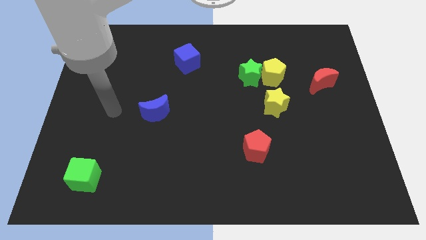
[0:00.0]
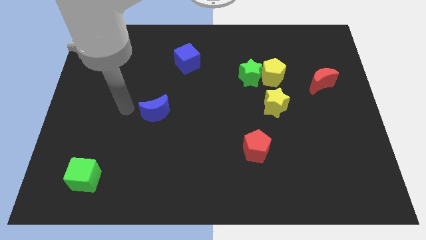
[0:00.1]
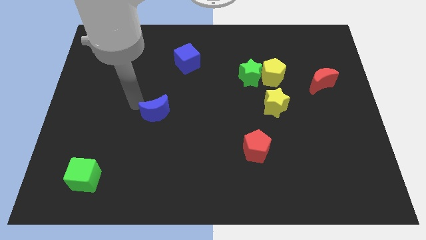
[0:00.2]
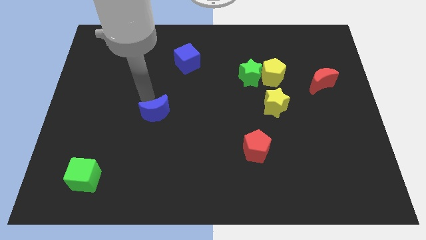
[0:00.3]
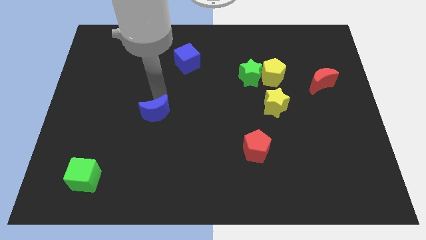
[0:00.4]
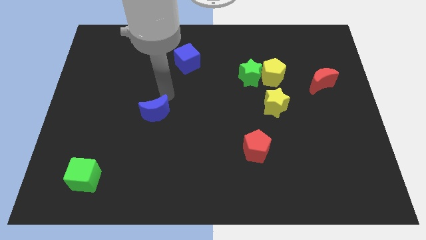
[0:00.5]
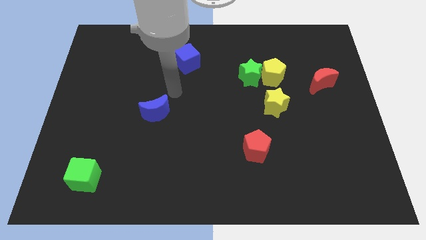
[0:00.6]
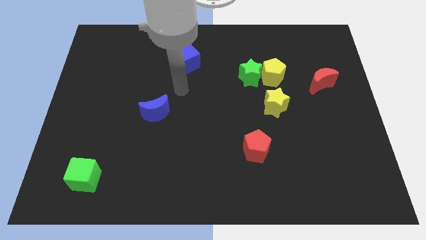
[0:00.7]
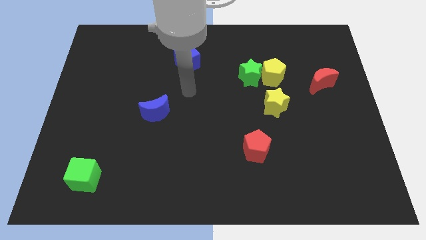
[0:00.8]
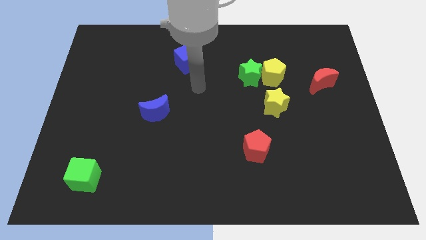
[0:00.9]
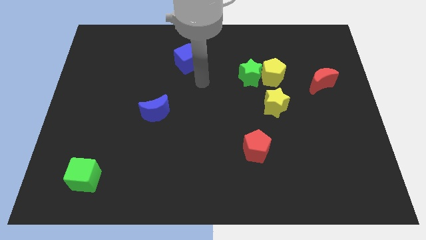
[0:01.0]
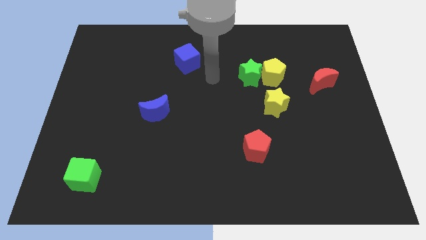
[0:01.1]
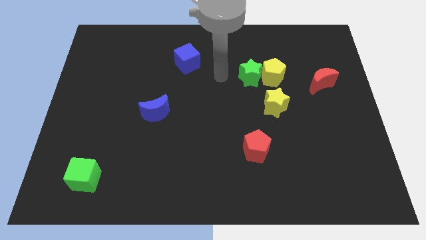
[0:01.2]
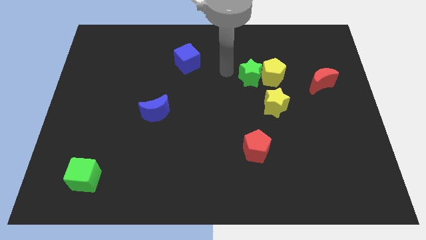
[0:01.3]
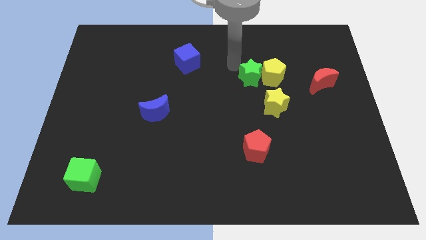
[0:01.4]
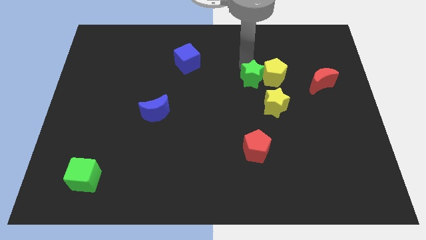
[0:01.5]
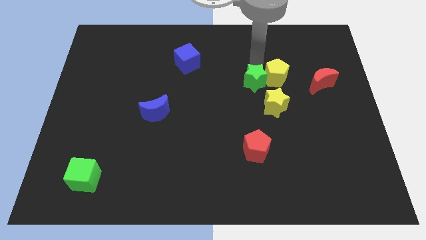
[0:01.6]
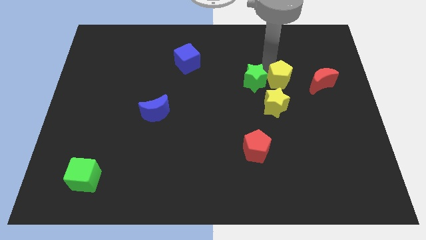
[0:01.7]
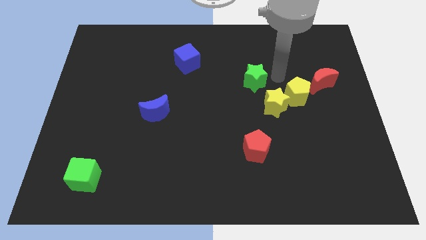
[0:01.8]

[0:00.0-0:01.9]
pull the green star apart from the yellow pentagon

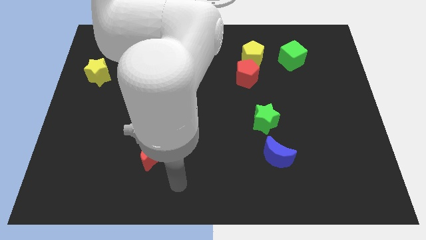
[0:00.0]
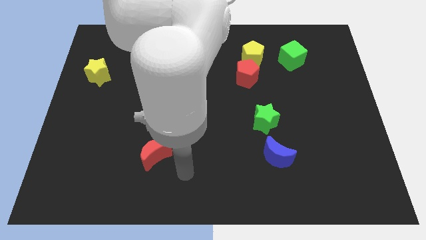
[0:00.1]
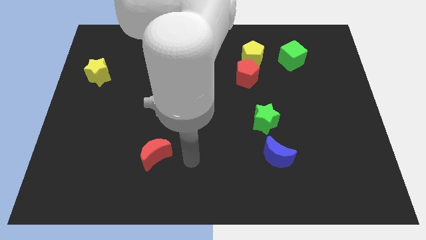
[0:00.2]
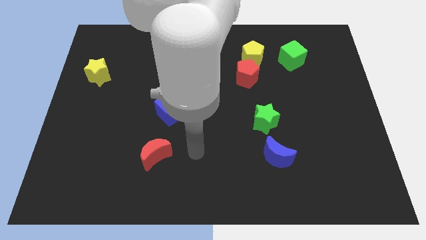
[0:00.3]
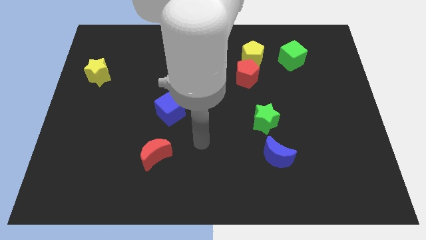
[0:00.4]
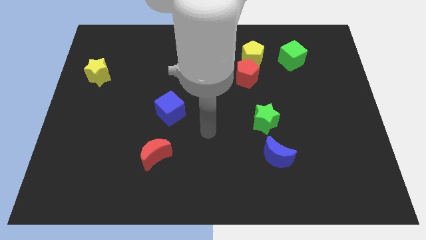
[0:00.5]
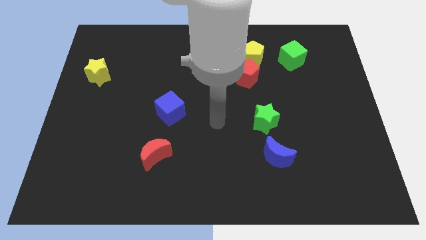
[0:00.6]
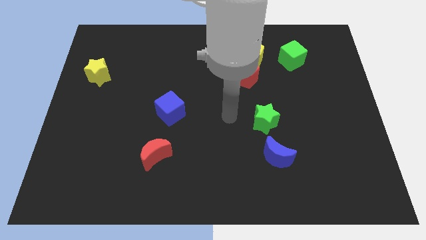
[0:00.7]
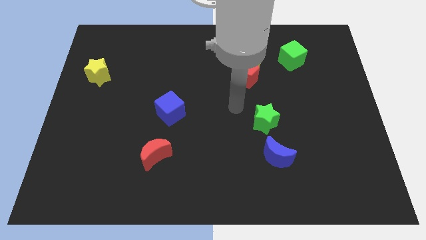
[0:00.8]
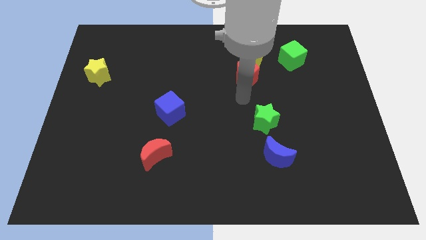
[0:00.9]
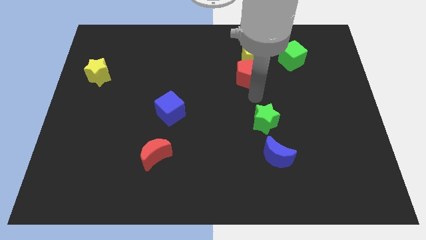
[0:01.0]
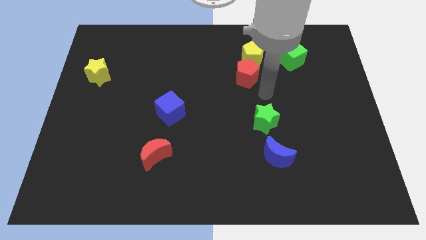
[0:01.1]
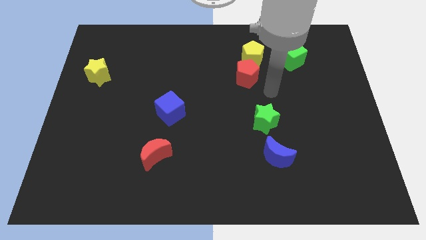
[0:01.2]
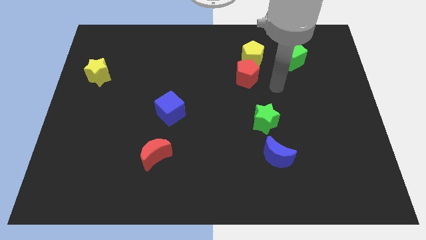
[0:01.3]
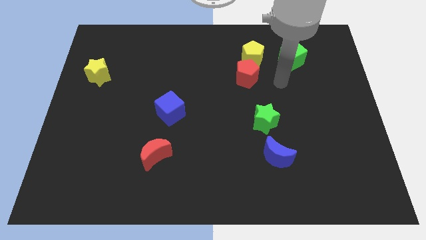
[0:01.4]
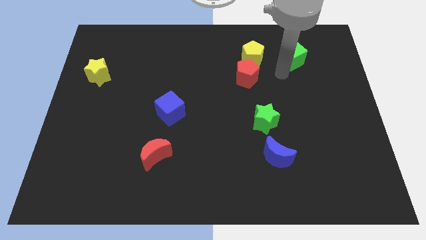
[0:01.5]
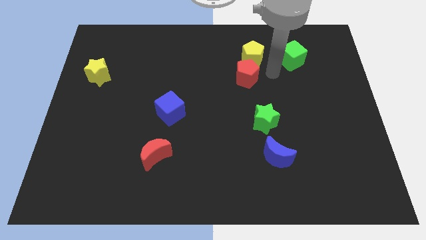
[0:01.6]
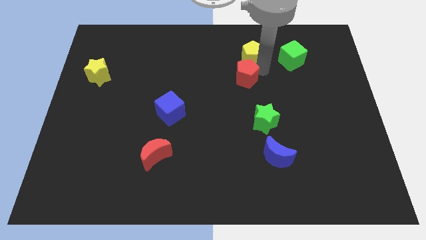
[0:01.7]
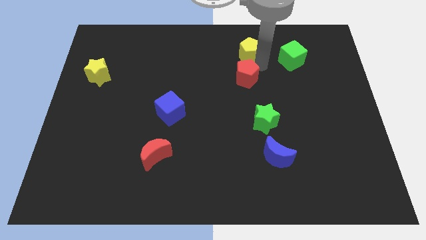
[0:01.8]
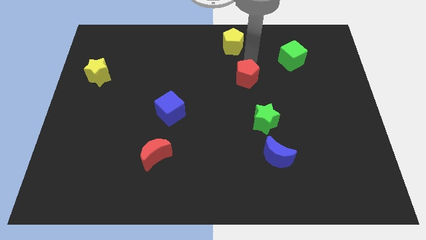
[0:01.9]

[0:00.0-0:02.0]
pull the red pentagon apart from the yellow pentagon

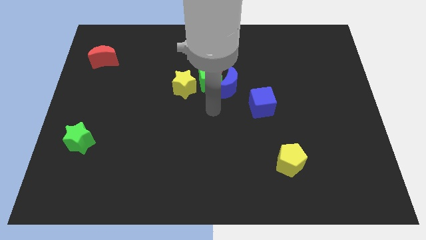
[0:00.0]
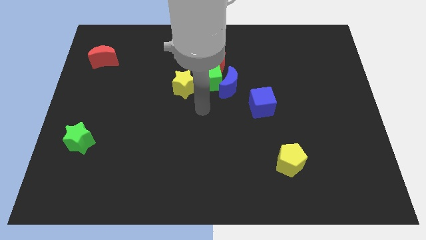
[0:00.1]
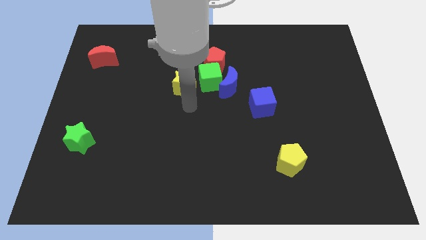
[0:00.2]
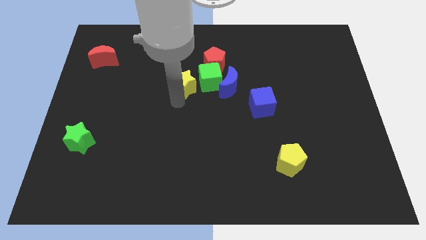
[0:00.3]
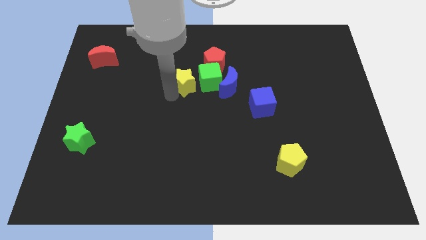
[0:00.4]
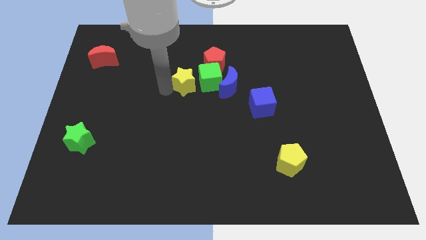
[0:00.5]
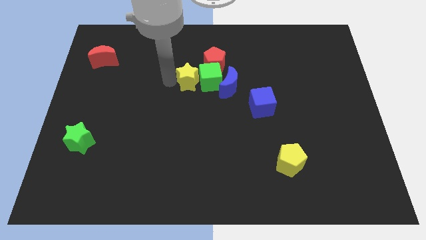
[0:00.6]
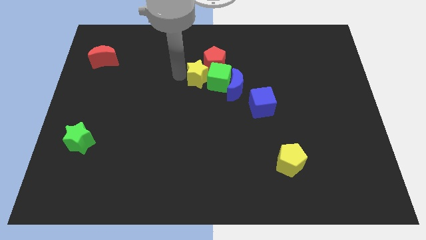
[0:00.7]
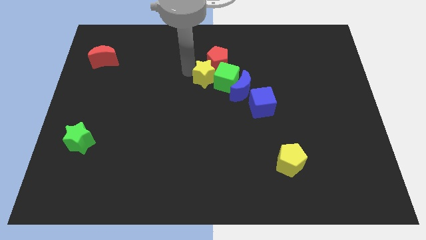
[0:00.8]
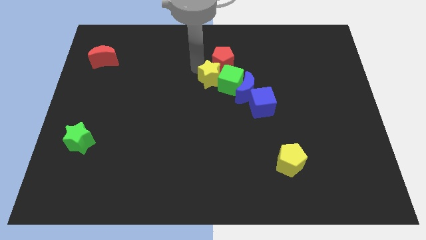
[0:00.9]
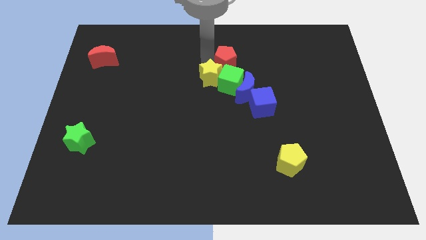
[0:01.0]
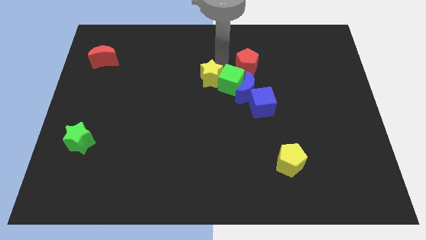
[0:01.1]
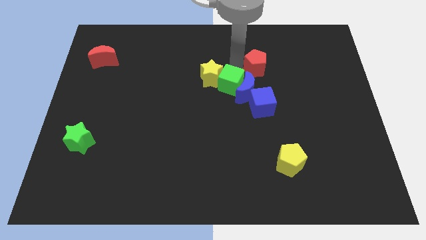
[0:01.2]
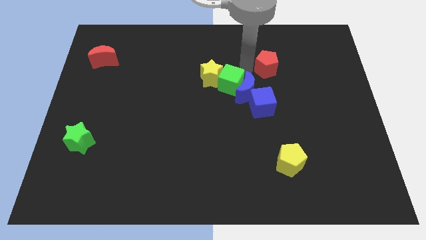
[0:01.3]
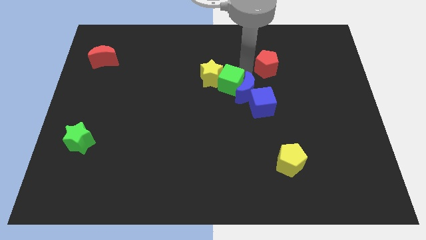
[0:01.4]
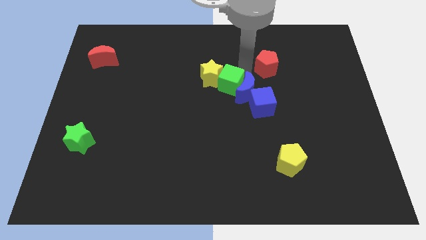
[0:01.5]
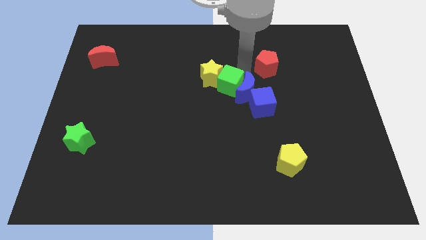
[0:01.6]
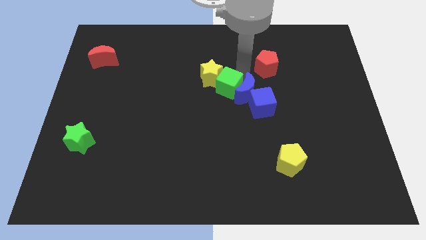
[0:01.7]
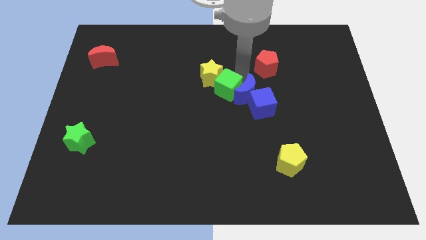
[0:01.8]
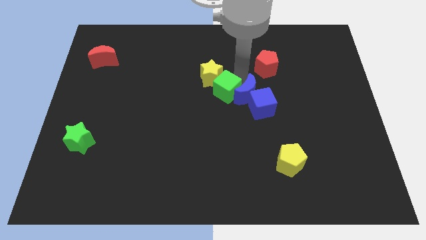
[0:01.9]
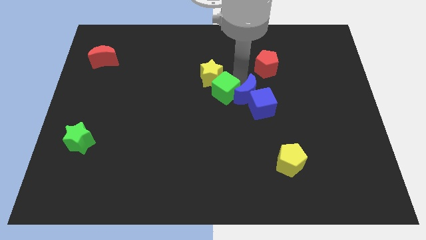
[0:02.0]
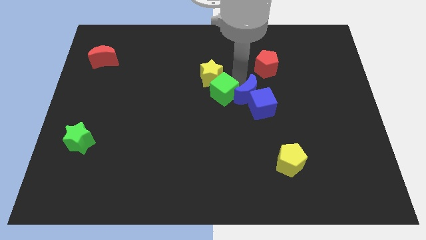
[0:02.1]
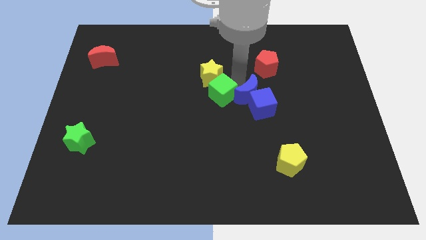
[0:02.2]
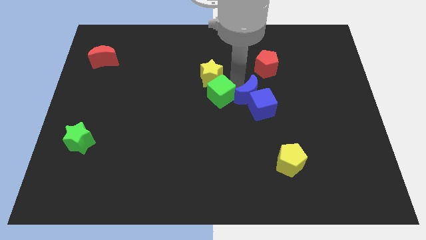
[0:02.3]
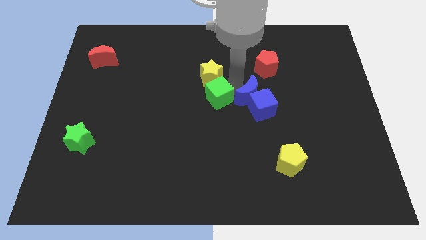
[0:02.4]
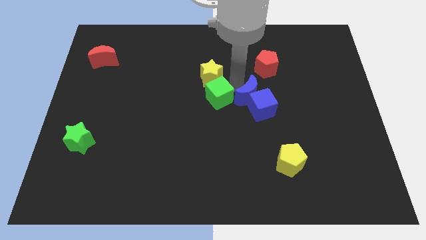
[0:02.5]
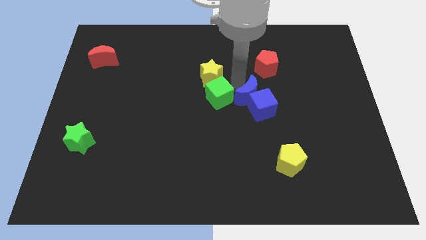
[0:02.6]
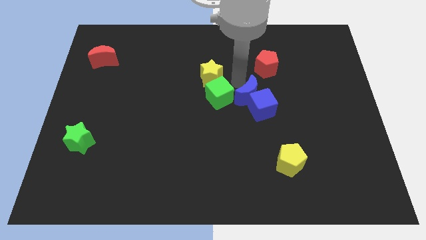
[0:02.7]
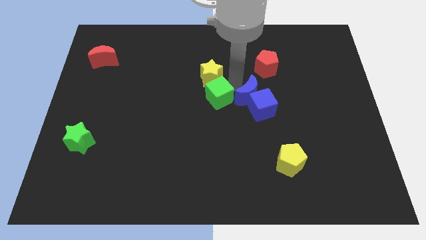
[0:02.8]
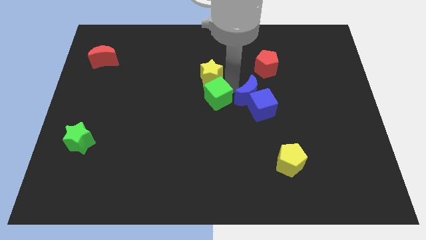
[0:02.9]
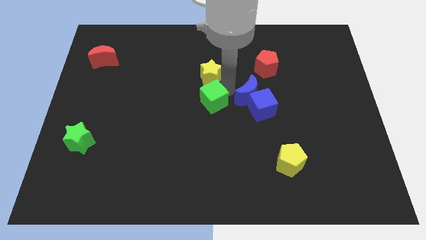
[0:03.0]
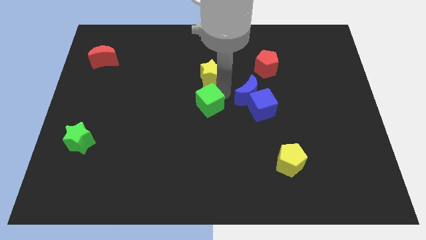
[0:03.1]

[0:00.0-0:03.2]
pull the green cube apart from the clump

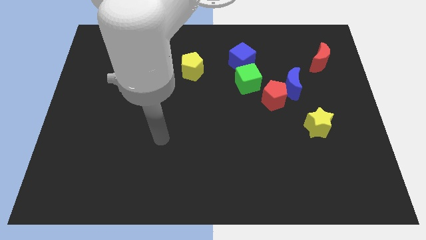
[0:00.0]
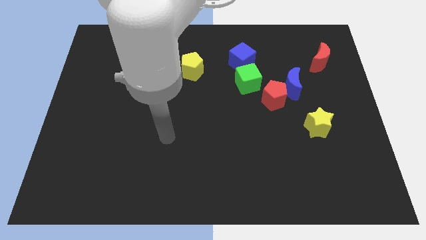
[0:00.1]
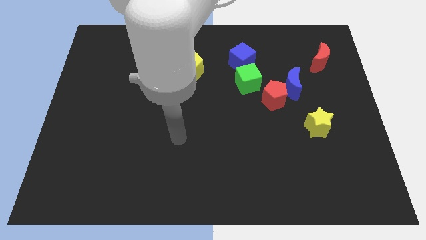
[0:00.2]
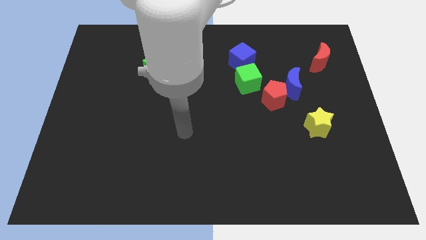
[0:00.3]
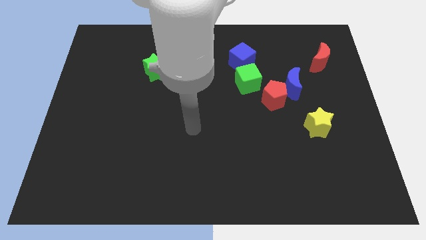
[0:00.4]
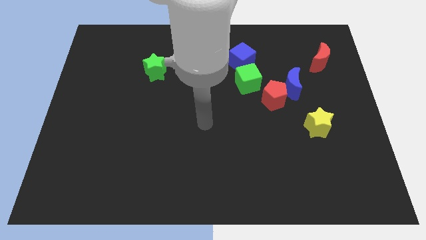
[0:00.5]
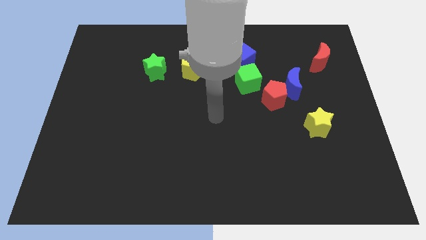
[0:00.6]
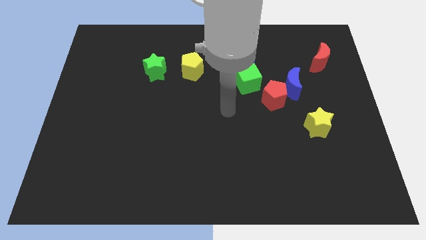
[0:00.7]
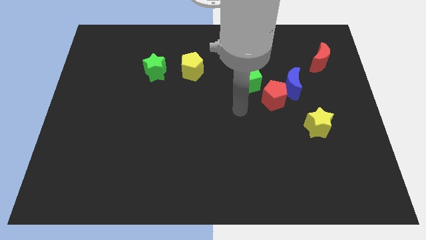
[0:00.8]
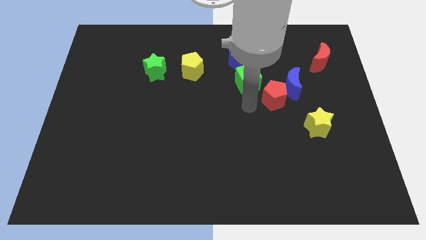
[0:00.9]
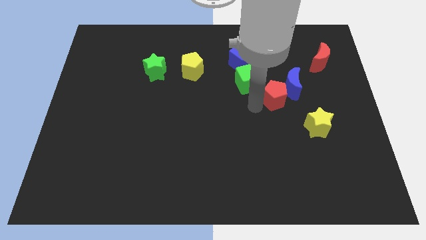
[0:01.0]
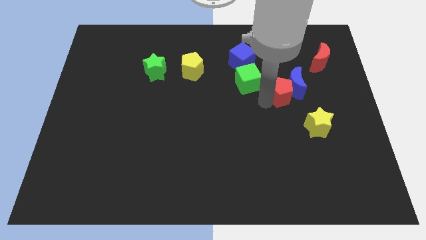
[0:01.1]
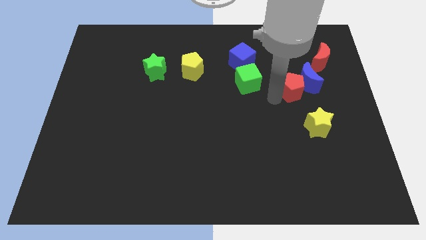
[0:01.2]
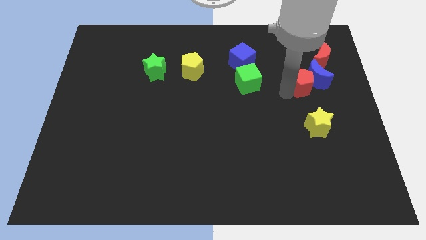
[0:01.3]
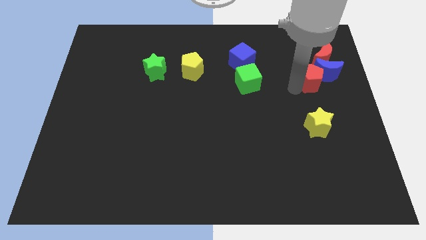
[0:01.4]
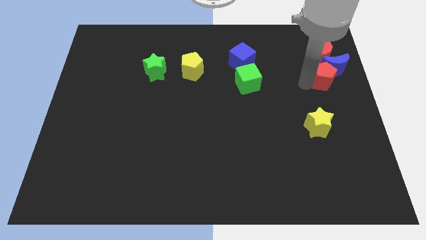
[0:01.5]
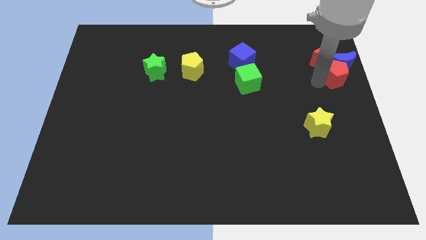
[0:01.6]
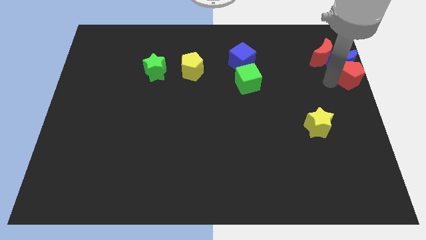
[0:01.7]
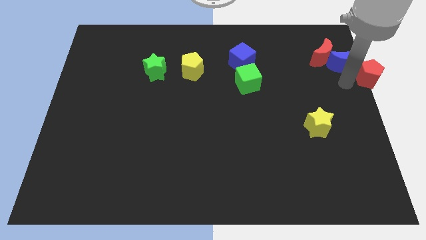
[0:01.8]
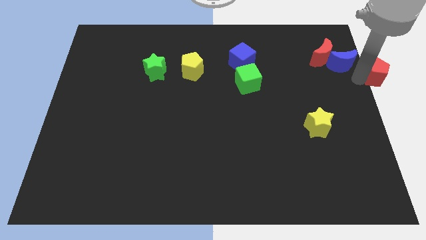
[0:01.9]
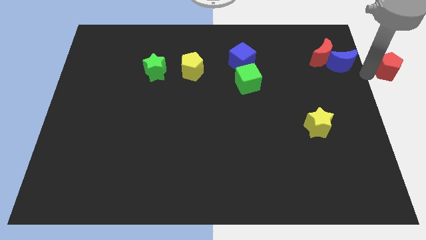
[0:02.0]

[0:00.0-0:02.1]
separate the blue moon from the red pentagon

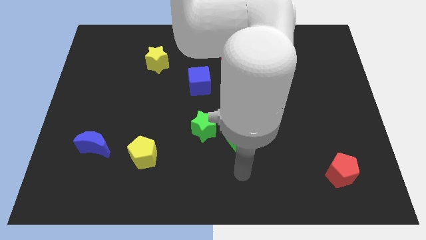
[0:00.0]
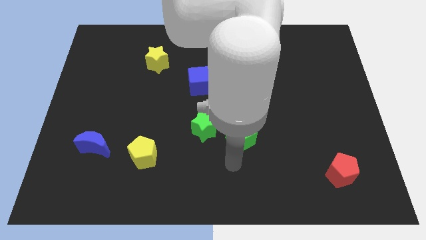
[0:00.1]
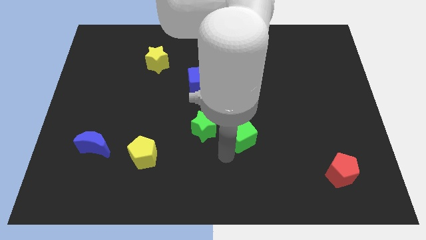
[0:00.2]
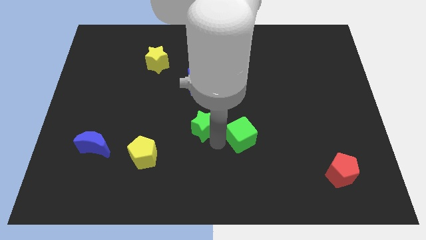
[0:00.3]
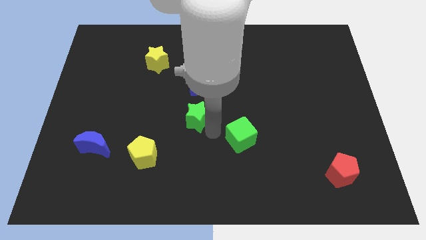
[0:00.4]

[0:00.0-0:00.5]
move the green cube away from the green star
